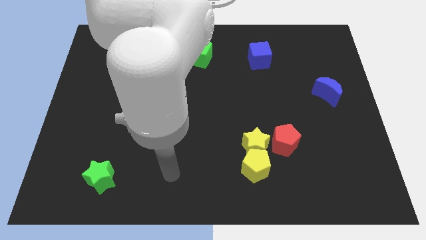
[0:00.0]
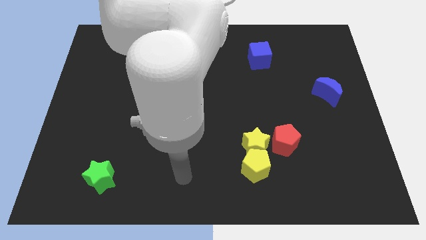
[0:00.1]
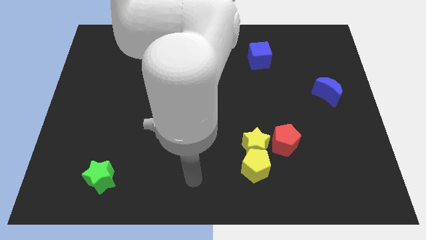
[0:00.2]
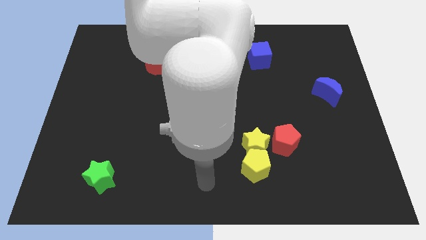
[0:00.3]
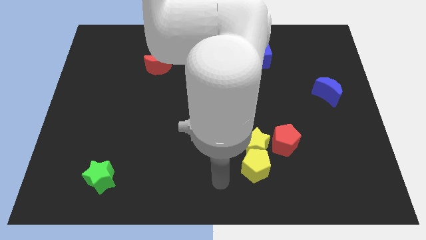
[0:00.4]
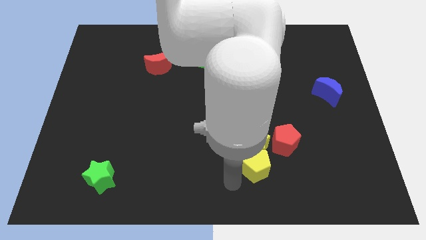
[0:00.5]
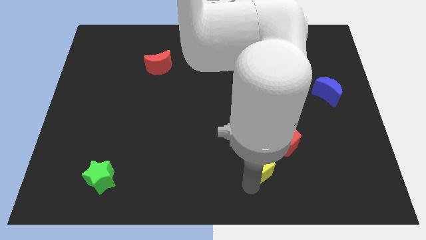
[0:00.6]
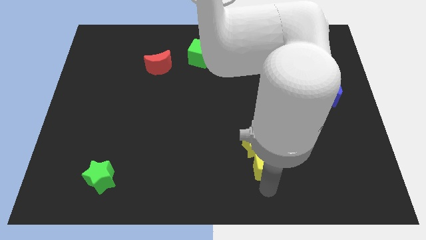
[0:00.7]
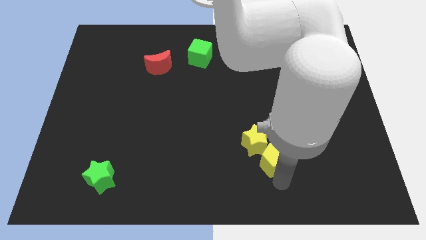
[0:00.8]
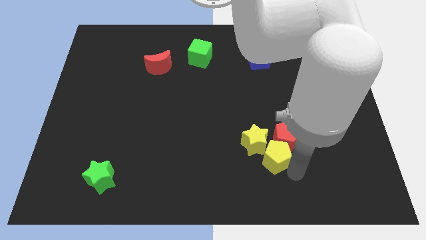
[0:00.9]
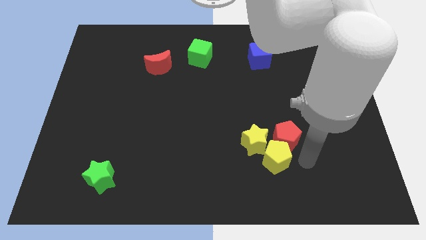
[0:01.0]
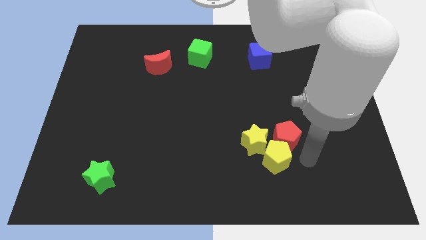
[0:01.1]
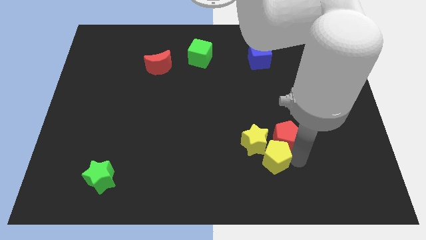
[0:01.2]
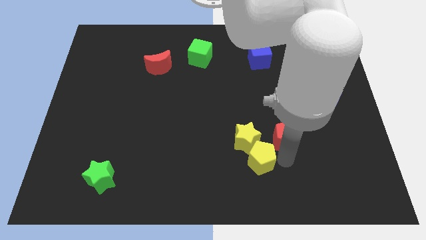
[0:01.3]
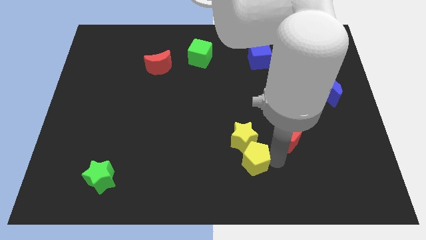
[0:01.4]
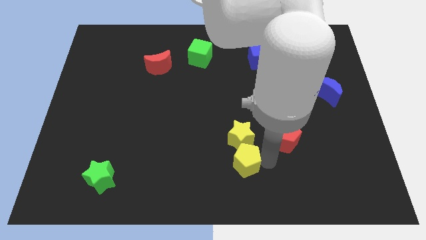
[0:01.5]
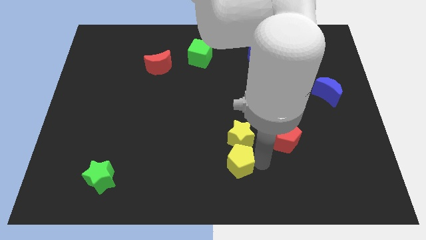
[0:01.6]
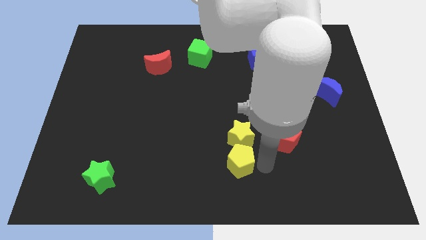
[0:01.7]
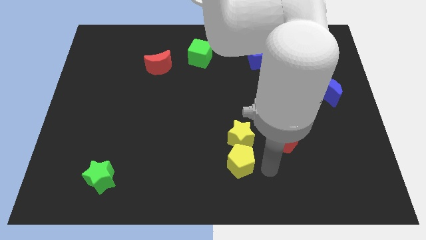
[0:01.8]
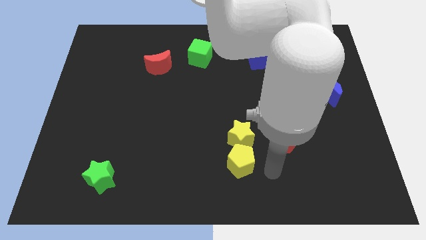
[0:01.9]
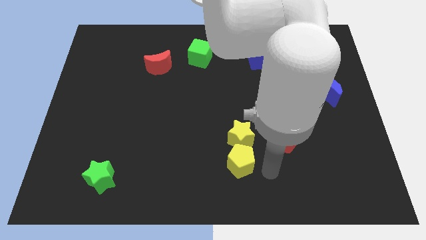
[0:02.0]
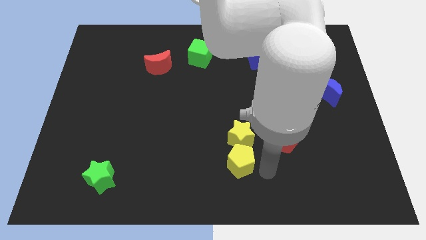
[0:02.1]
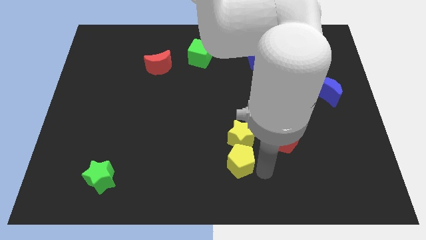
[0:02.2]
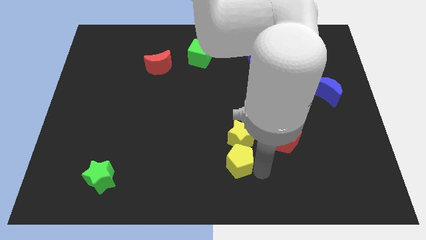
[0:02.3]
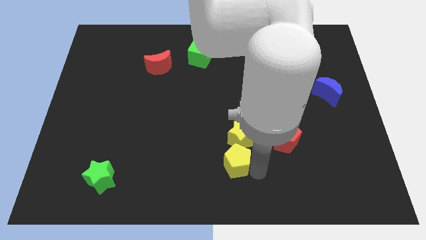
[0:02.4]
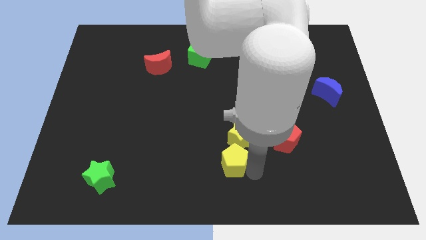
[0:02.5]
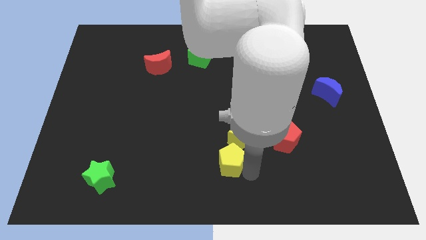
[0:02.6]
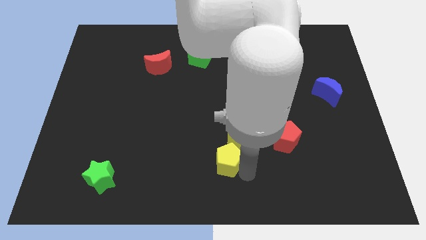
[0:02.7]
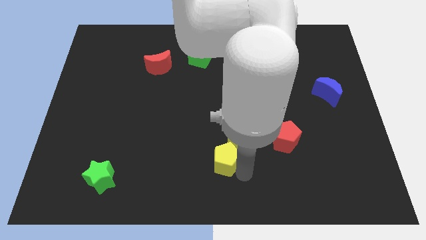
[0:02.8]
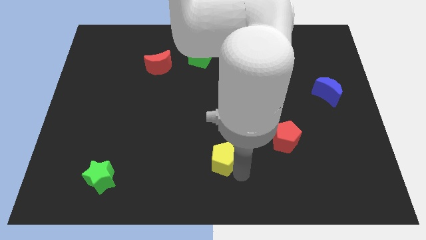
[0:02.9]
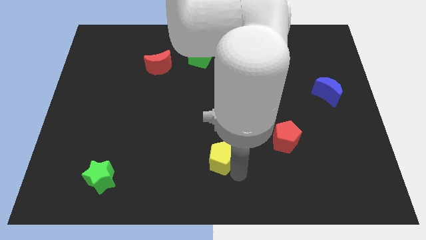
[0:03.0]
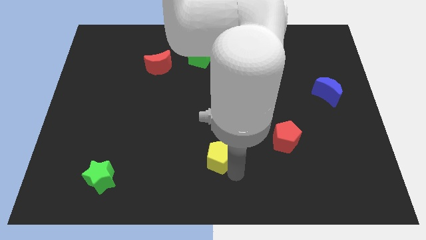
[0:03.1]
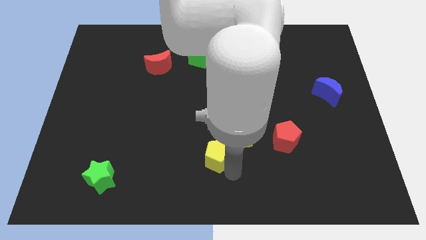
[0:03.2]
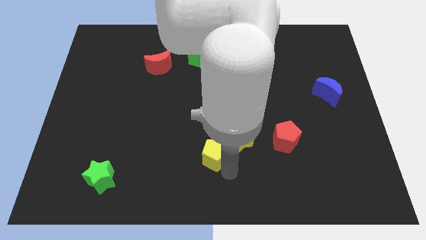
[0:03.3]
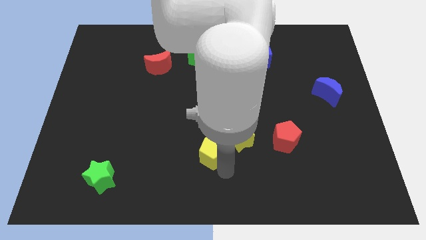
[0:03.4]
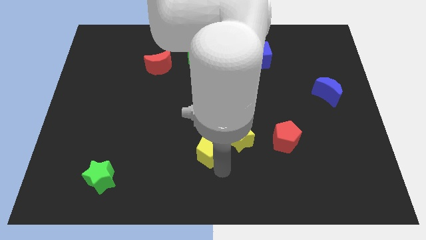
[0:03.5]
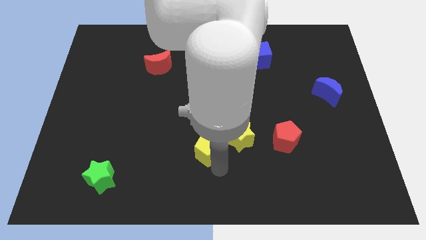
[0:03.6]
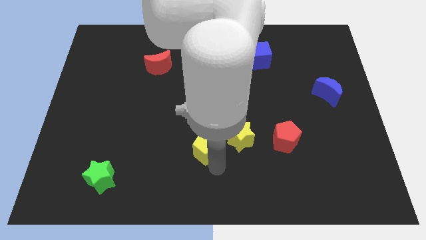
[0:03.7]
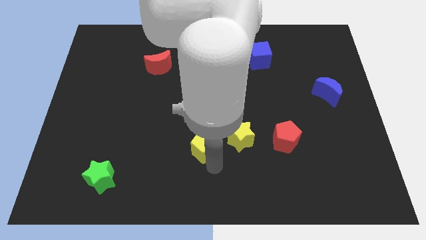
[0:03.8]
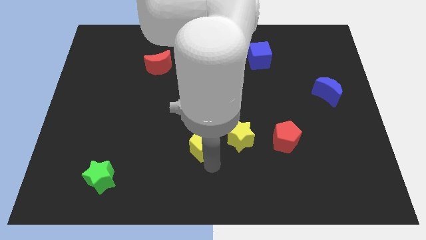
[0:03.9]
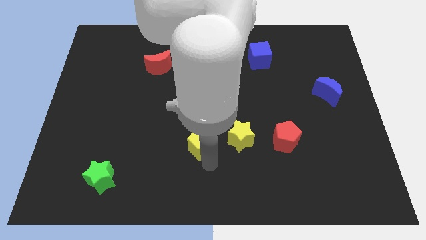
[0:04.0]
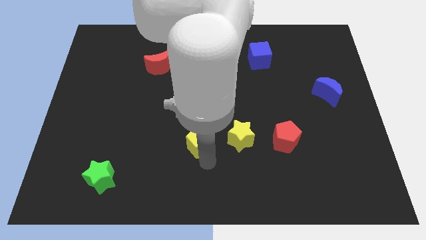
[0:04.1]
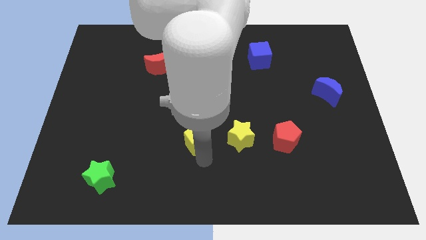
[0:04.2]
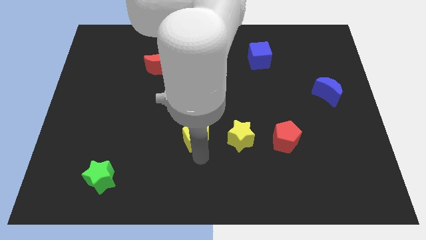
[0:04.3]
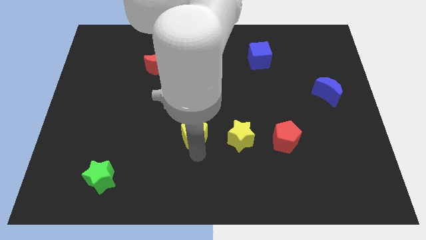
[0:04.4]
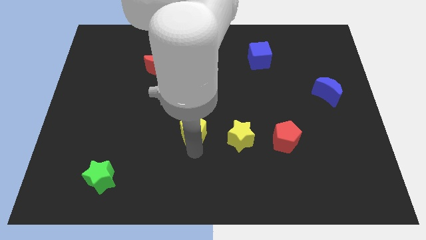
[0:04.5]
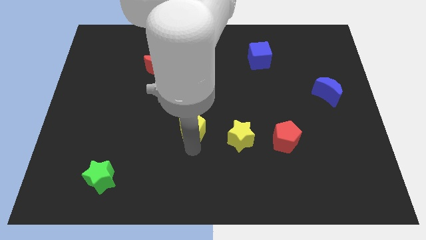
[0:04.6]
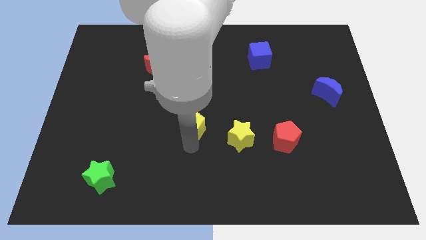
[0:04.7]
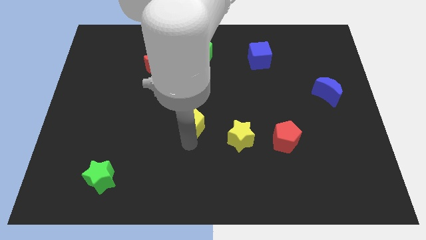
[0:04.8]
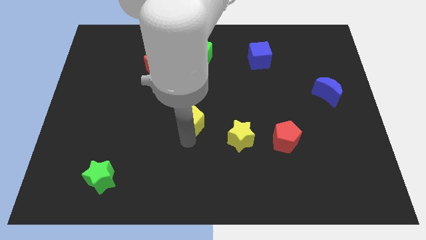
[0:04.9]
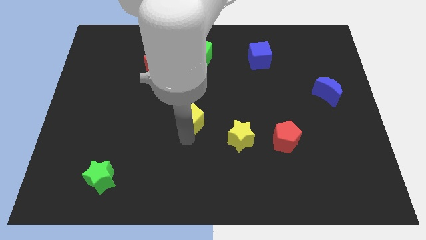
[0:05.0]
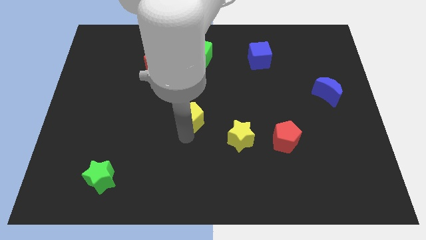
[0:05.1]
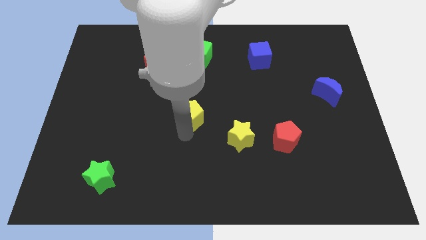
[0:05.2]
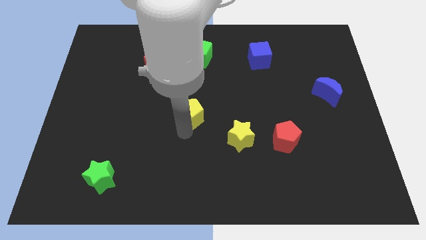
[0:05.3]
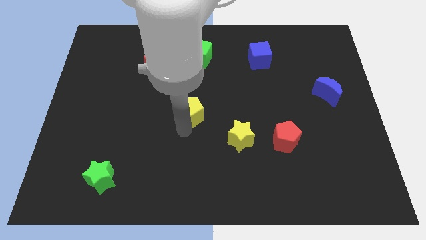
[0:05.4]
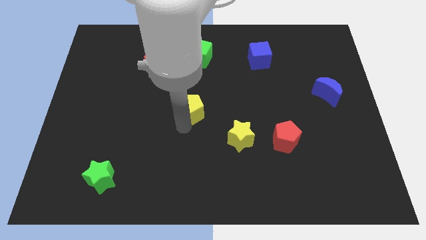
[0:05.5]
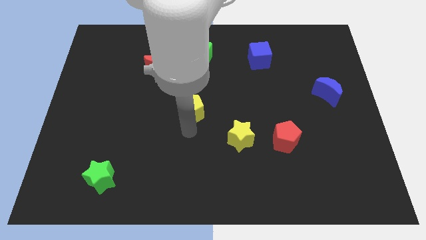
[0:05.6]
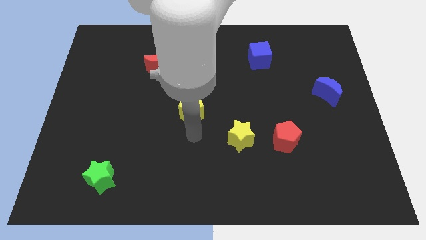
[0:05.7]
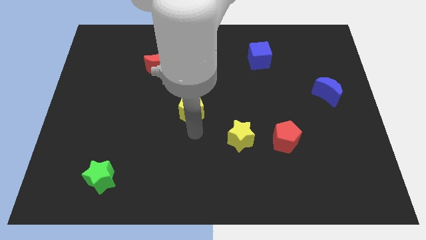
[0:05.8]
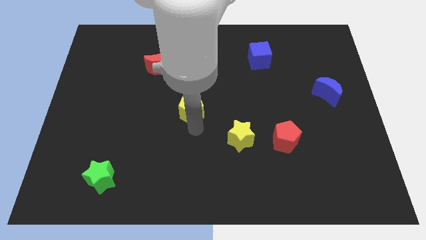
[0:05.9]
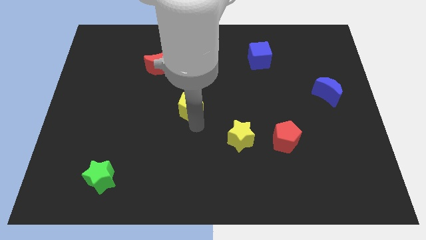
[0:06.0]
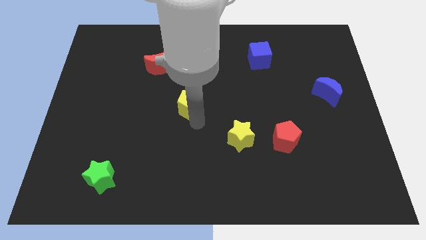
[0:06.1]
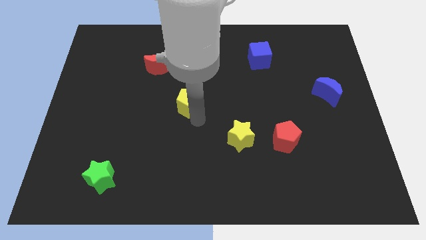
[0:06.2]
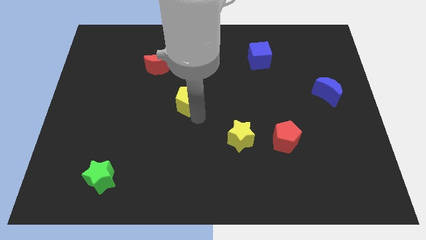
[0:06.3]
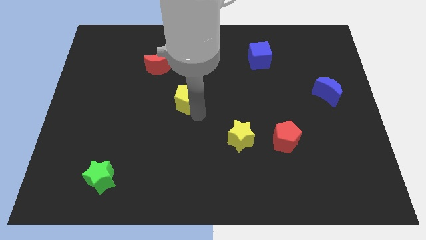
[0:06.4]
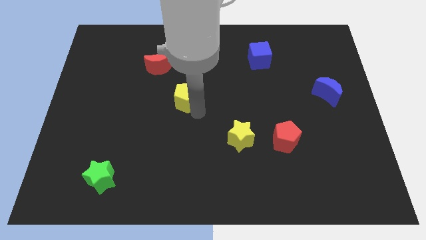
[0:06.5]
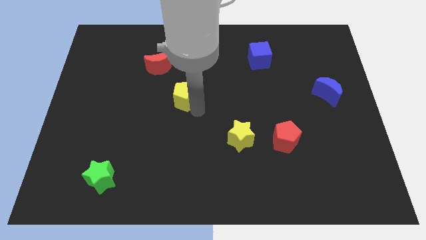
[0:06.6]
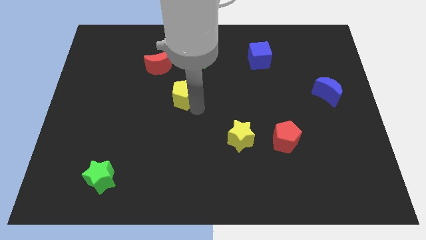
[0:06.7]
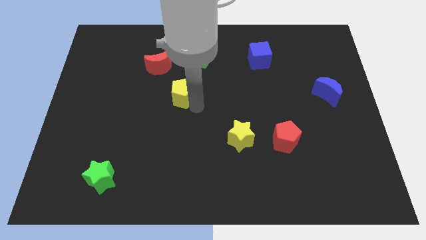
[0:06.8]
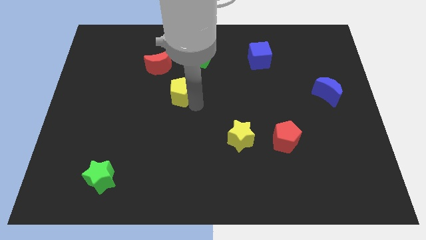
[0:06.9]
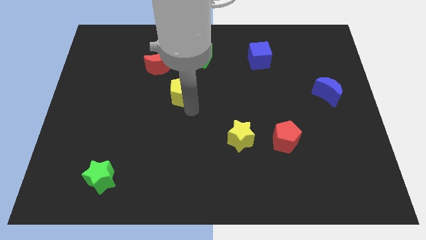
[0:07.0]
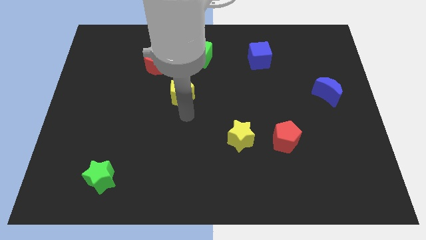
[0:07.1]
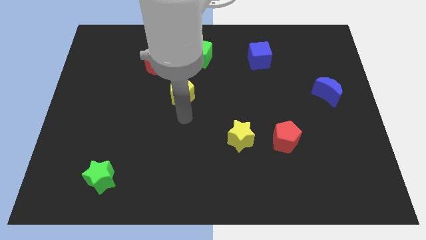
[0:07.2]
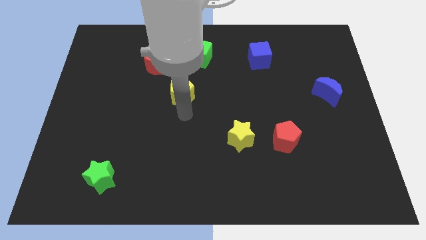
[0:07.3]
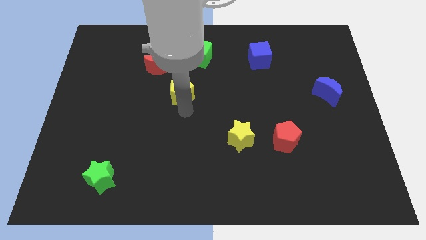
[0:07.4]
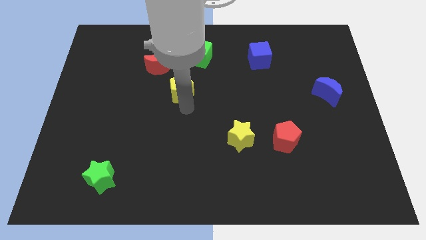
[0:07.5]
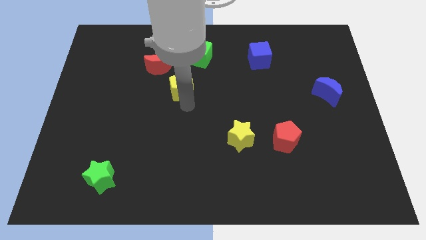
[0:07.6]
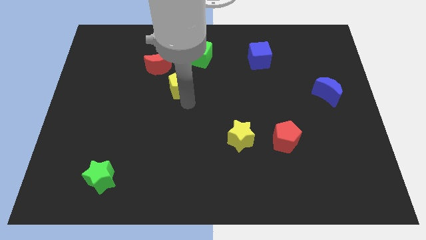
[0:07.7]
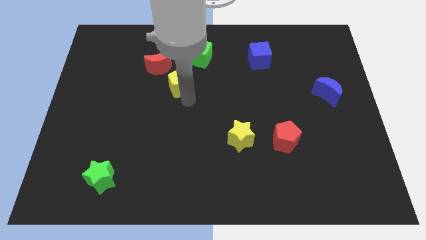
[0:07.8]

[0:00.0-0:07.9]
push the yellow pentagon to the bottom left side of the green cube
